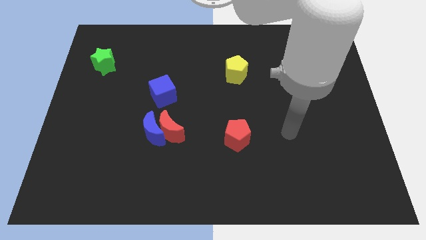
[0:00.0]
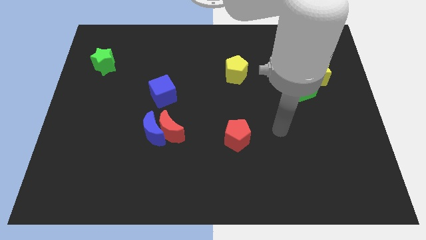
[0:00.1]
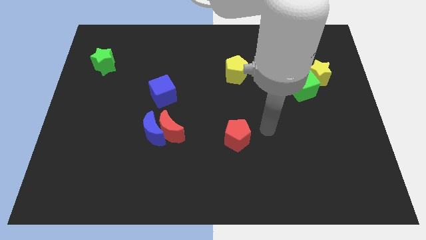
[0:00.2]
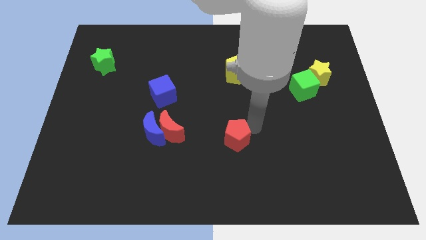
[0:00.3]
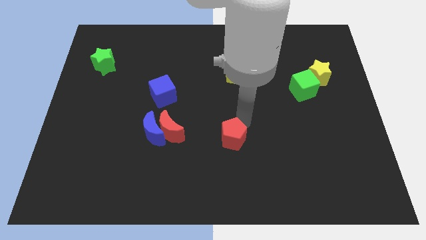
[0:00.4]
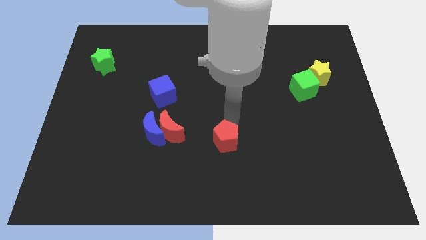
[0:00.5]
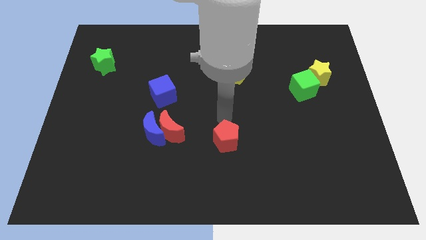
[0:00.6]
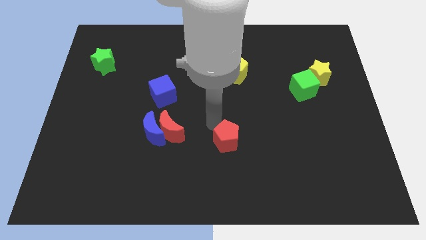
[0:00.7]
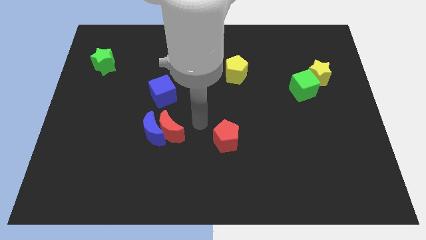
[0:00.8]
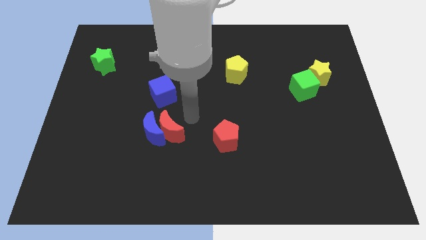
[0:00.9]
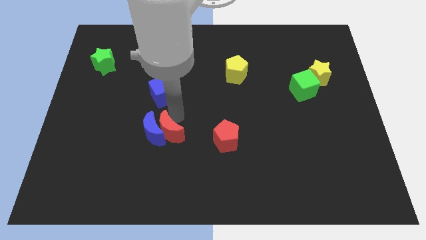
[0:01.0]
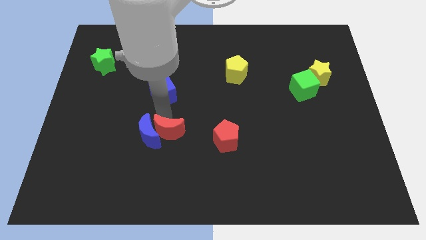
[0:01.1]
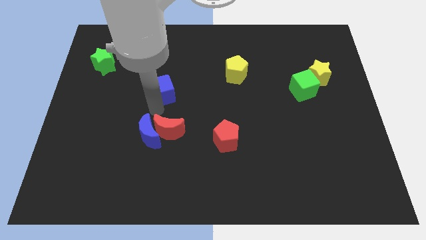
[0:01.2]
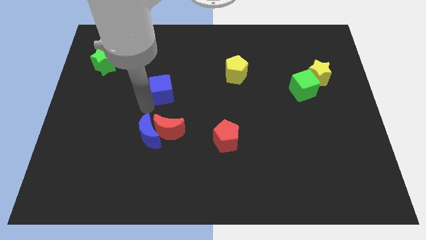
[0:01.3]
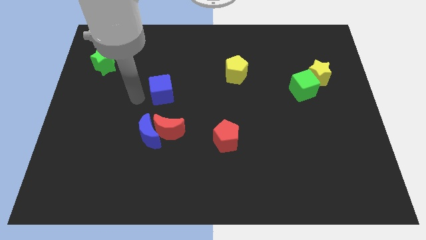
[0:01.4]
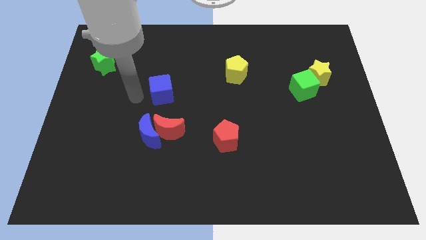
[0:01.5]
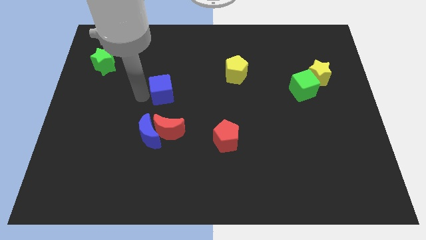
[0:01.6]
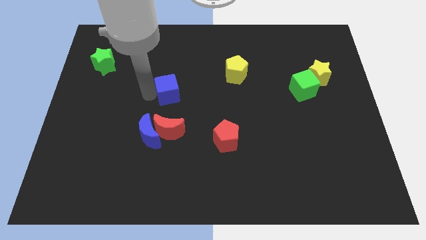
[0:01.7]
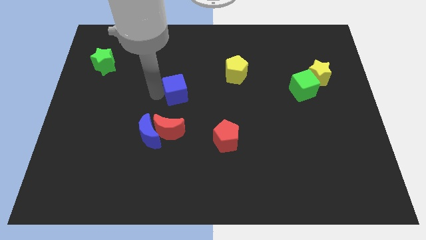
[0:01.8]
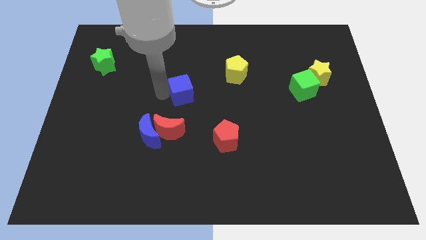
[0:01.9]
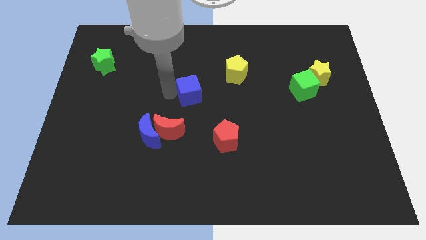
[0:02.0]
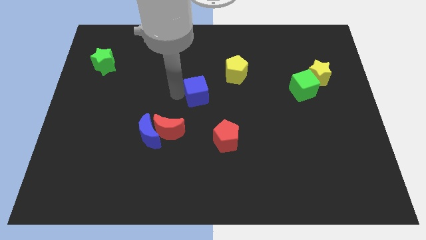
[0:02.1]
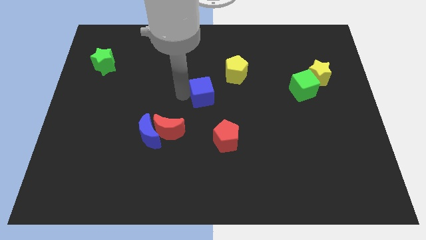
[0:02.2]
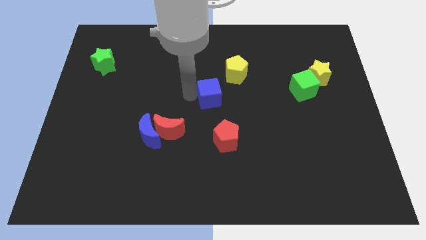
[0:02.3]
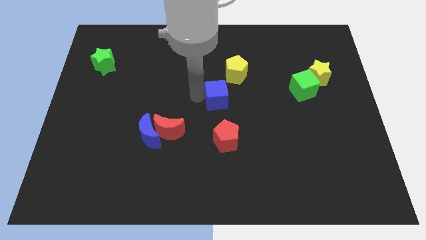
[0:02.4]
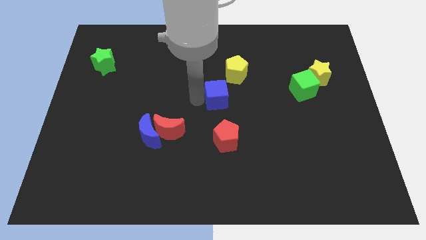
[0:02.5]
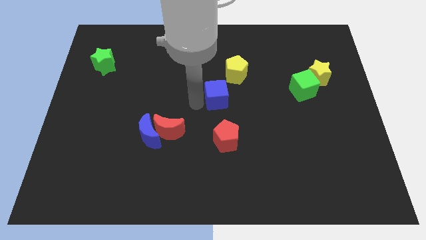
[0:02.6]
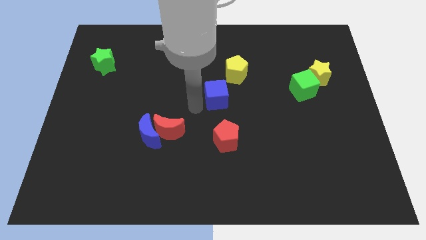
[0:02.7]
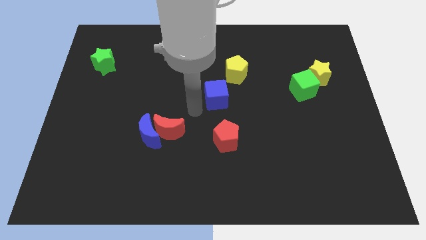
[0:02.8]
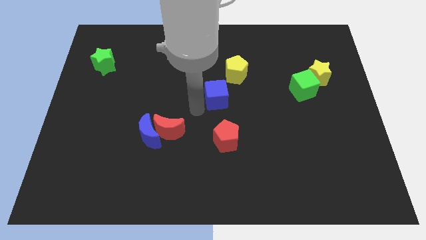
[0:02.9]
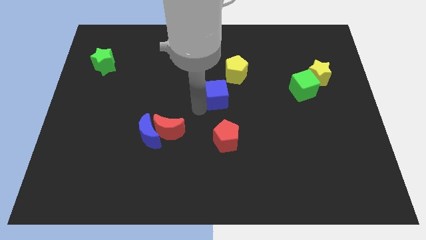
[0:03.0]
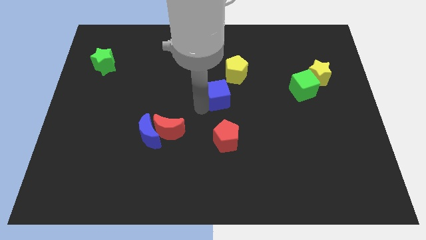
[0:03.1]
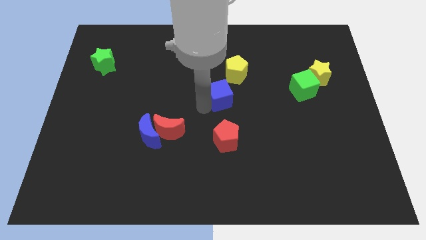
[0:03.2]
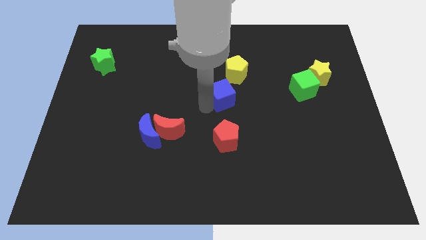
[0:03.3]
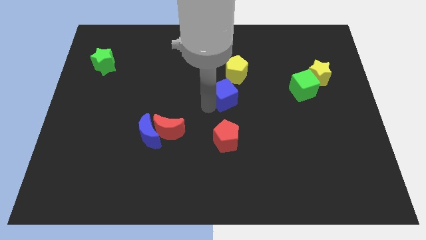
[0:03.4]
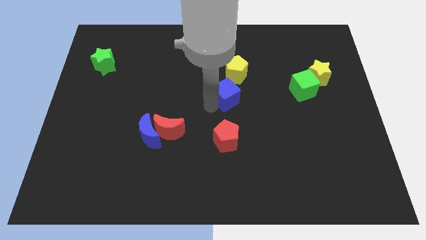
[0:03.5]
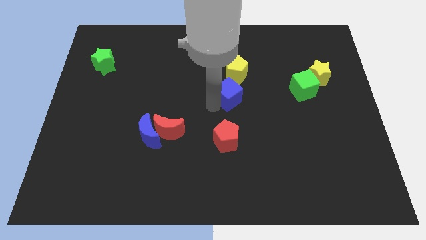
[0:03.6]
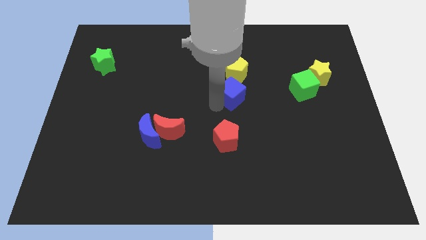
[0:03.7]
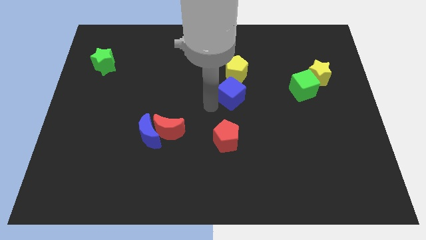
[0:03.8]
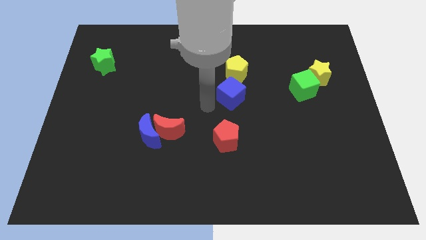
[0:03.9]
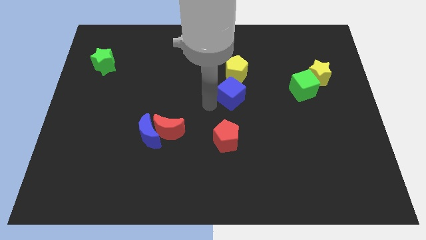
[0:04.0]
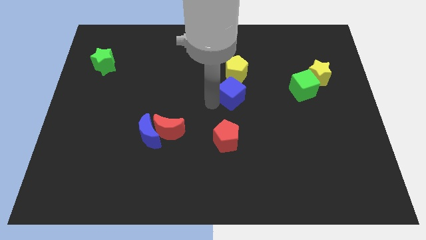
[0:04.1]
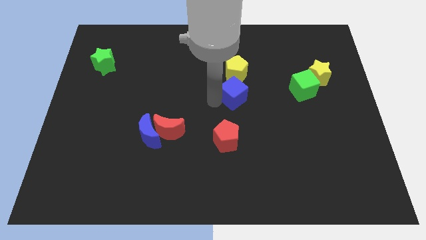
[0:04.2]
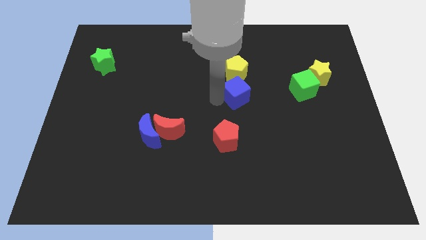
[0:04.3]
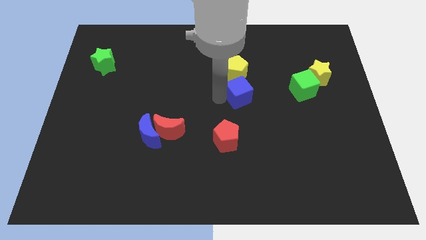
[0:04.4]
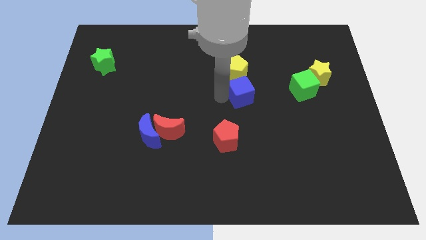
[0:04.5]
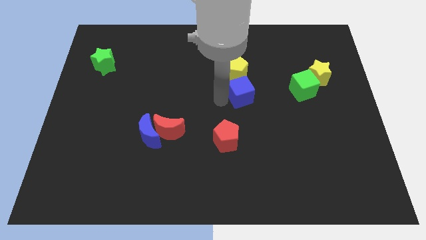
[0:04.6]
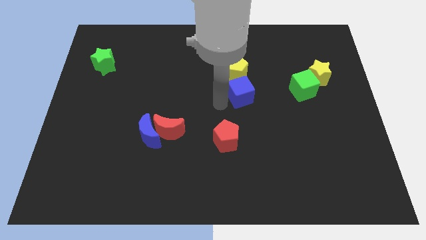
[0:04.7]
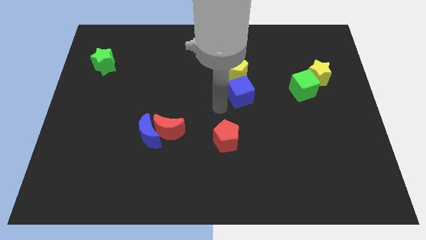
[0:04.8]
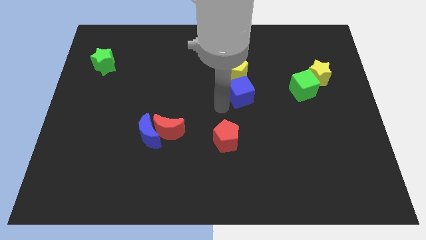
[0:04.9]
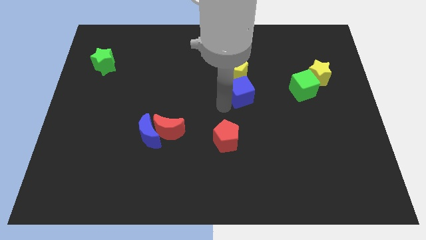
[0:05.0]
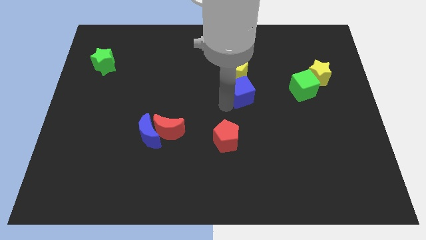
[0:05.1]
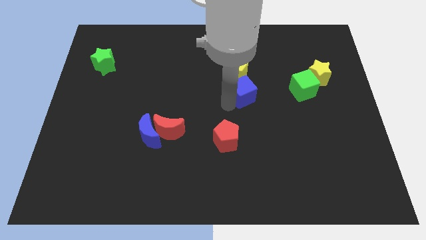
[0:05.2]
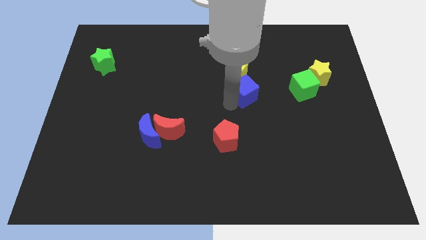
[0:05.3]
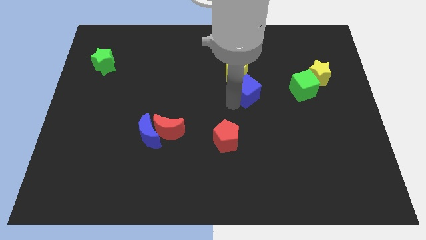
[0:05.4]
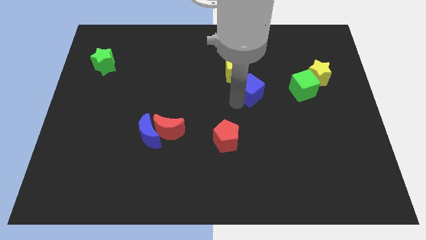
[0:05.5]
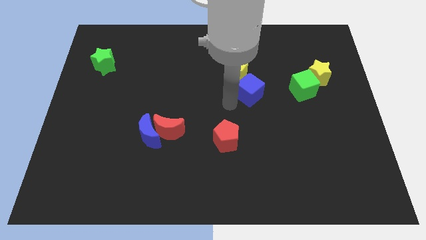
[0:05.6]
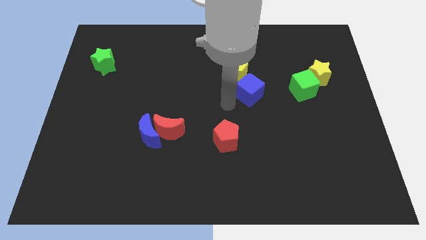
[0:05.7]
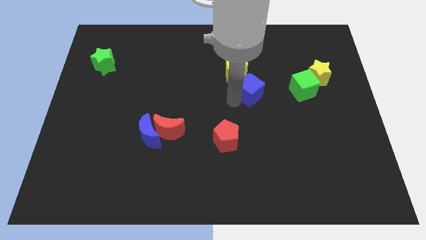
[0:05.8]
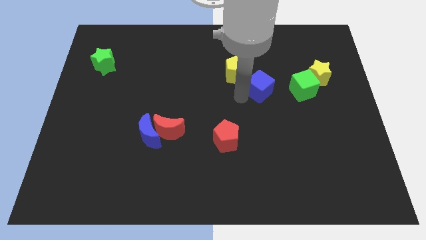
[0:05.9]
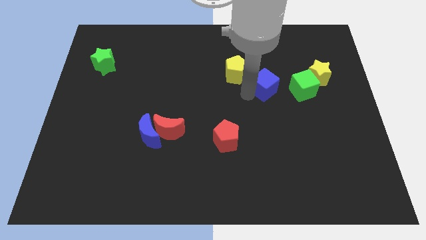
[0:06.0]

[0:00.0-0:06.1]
put the blue cube to the left side of the yellow star
